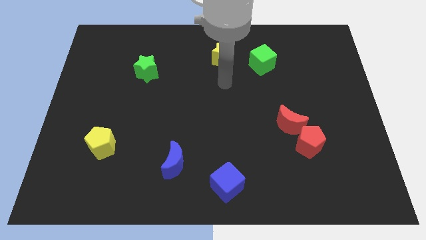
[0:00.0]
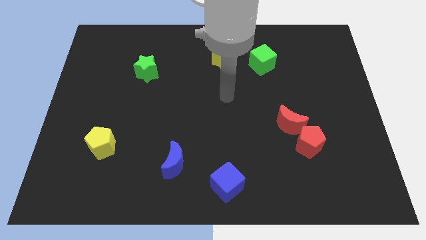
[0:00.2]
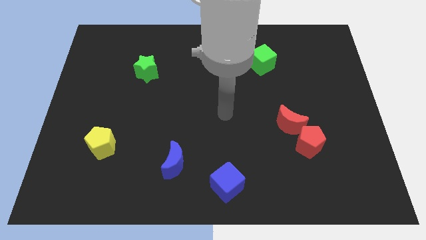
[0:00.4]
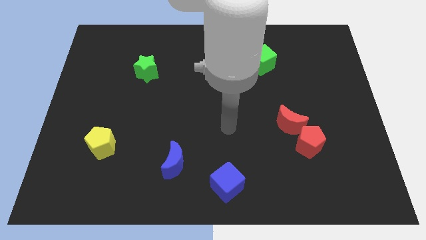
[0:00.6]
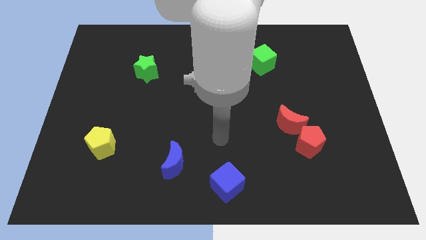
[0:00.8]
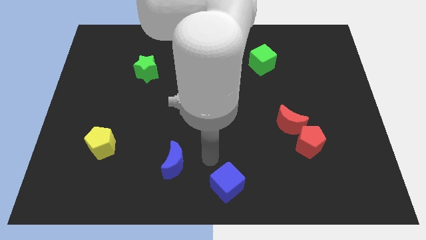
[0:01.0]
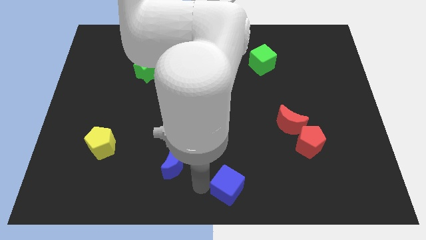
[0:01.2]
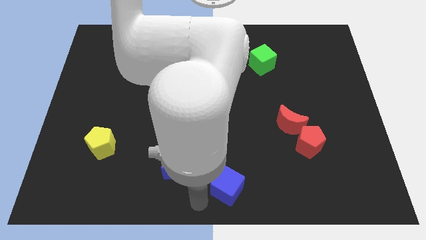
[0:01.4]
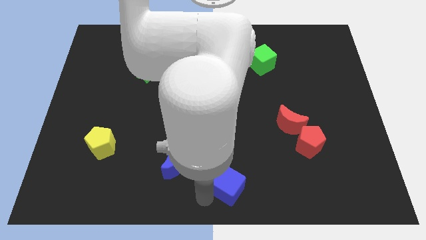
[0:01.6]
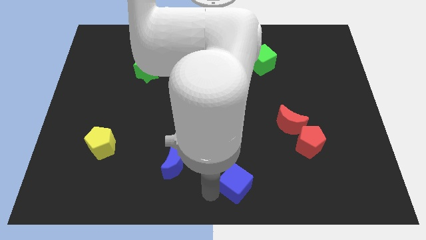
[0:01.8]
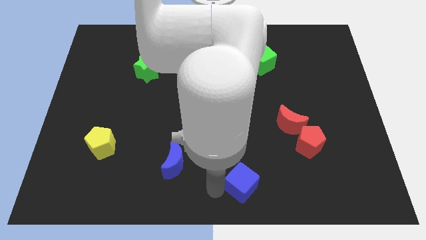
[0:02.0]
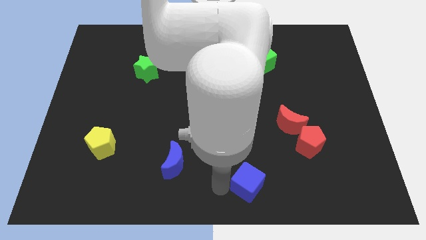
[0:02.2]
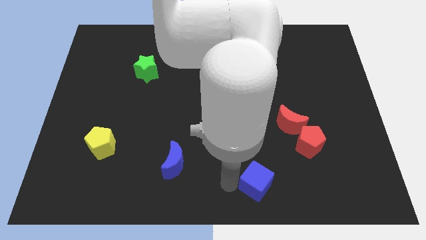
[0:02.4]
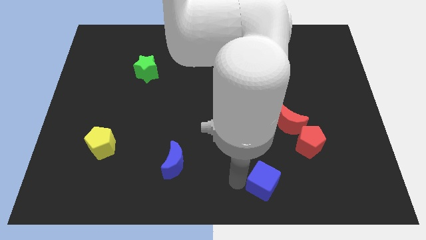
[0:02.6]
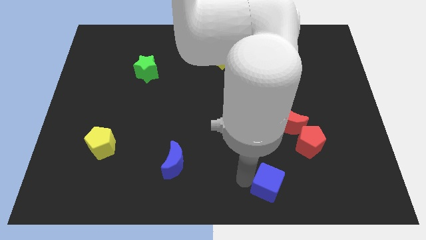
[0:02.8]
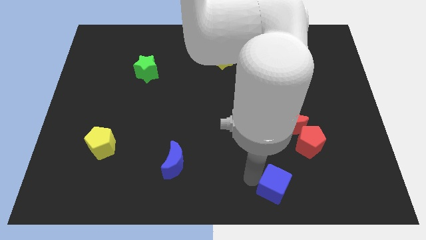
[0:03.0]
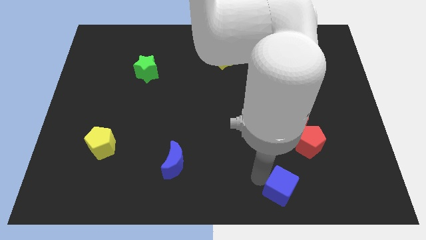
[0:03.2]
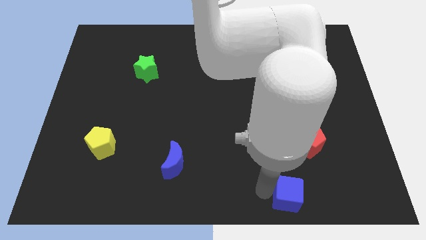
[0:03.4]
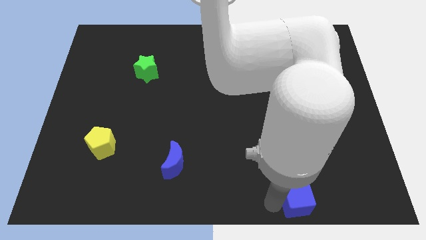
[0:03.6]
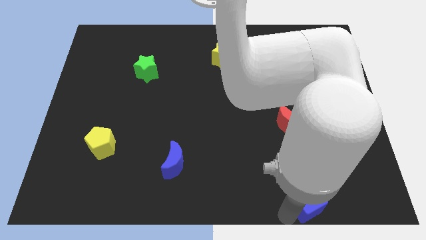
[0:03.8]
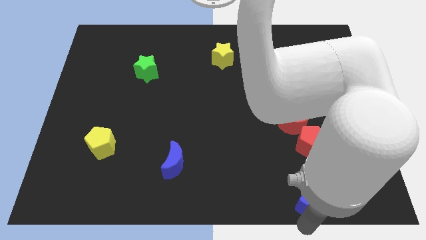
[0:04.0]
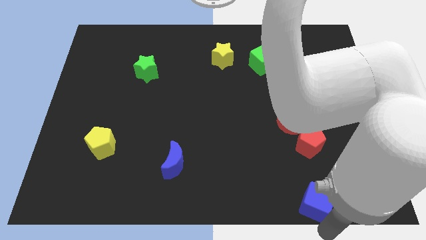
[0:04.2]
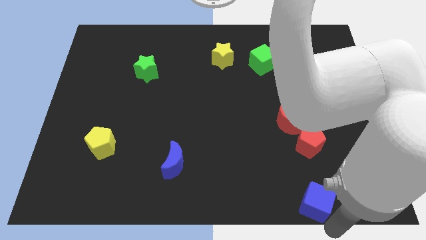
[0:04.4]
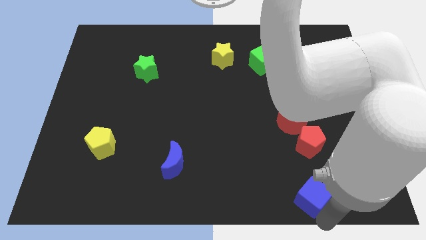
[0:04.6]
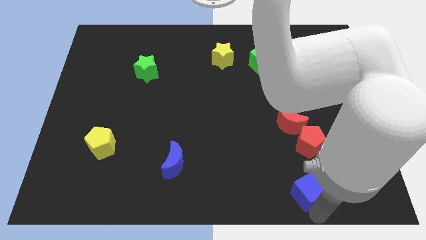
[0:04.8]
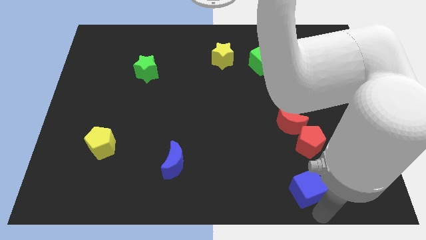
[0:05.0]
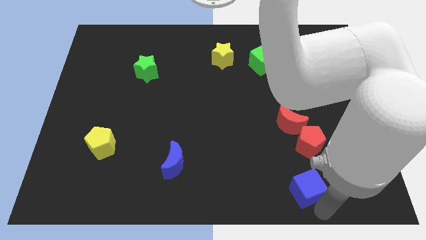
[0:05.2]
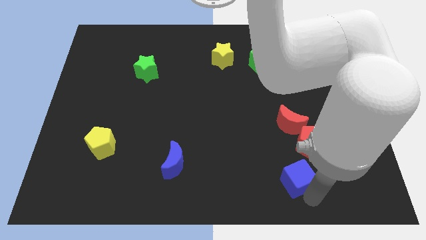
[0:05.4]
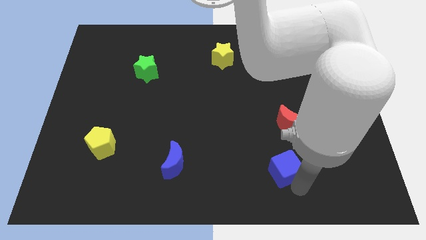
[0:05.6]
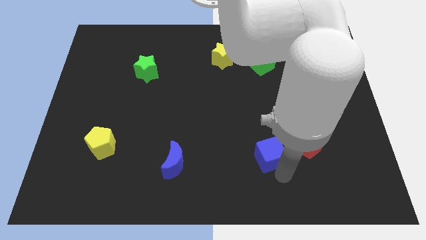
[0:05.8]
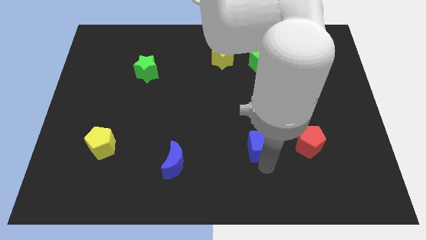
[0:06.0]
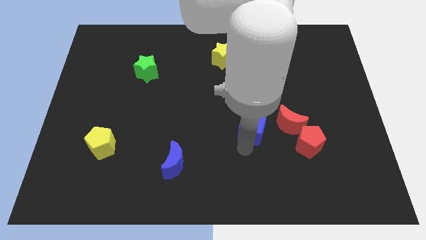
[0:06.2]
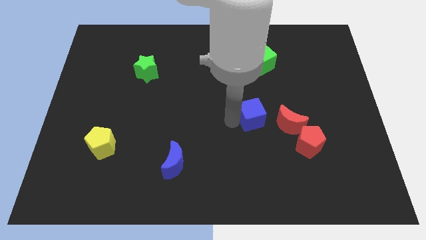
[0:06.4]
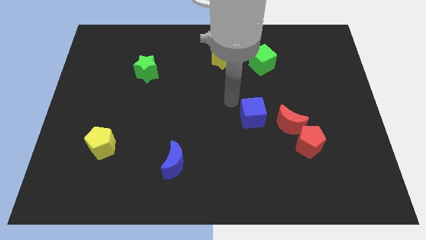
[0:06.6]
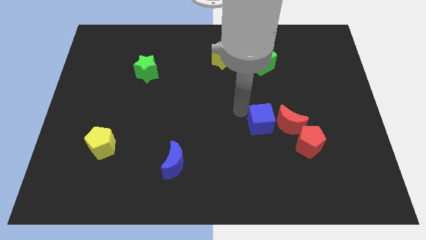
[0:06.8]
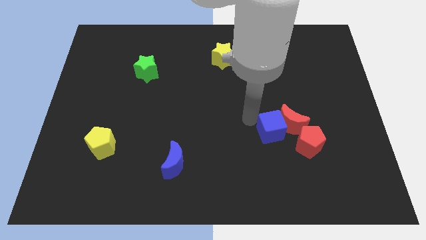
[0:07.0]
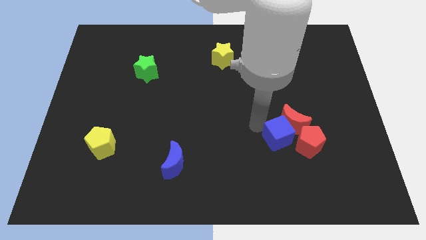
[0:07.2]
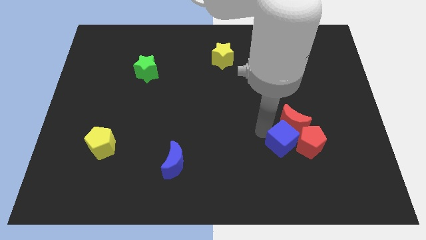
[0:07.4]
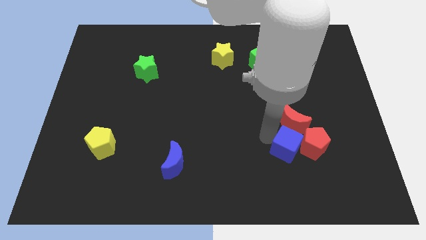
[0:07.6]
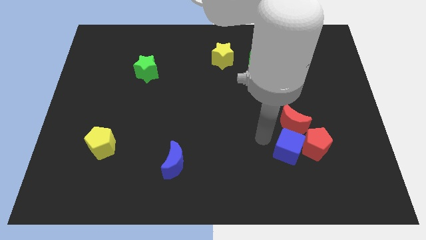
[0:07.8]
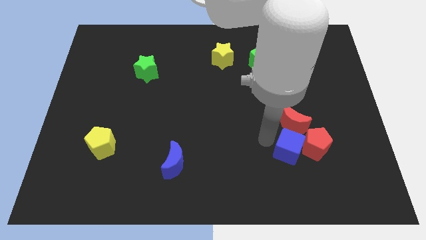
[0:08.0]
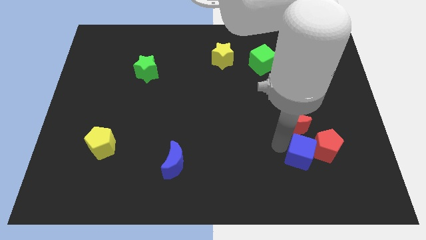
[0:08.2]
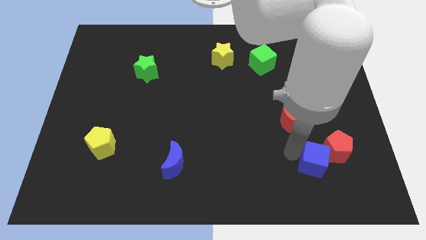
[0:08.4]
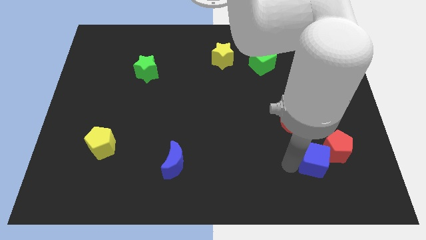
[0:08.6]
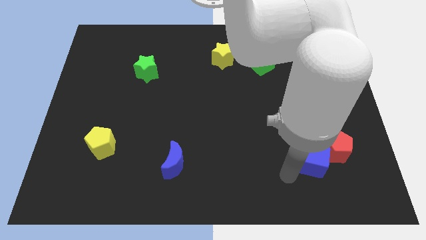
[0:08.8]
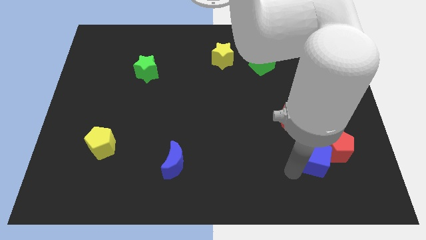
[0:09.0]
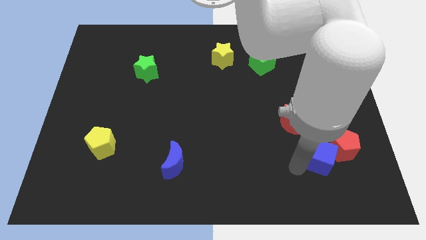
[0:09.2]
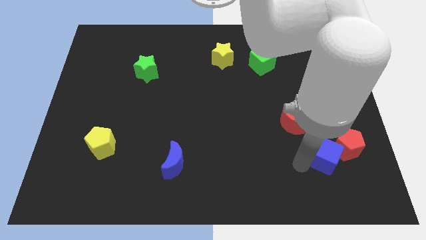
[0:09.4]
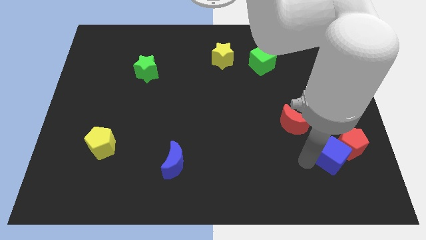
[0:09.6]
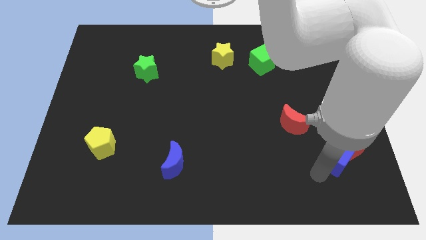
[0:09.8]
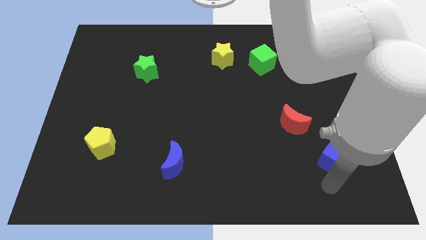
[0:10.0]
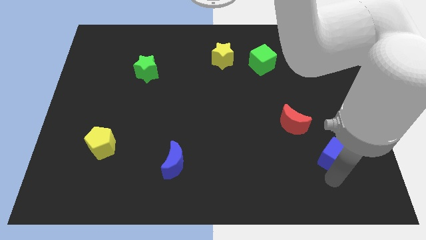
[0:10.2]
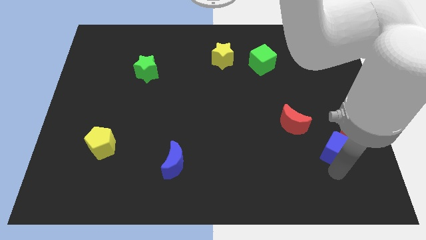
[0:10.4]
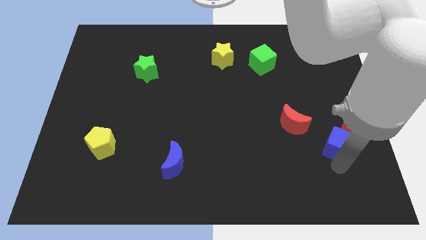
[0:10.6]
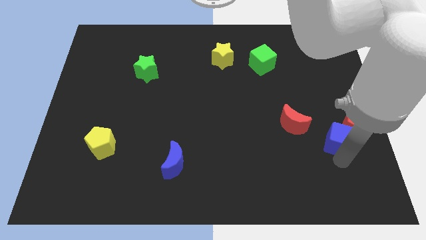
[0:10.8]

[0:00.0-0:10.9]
slide the blue cube just right of the red moon

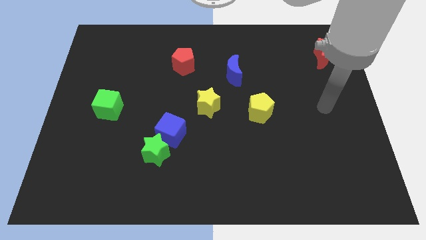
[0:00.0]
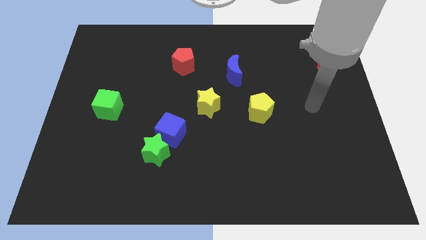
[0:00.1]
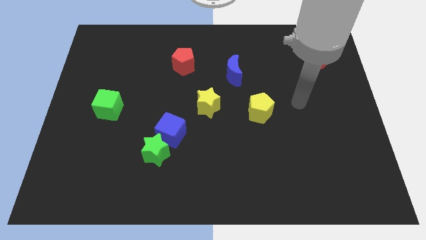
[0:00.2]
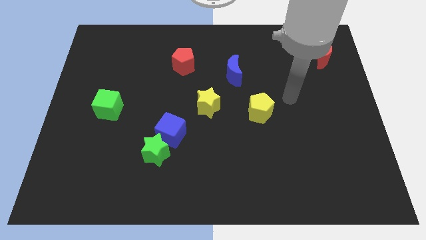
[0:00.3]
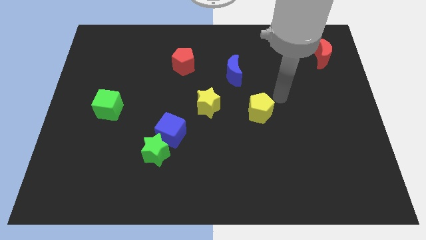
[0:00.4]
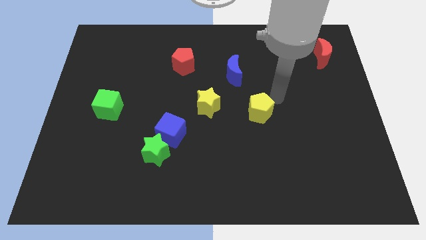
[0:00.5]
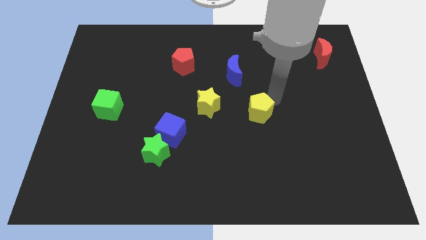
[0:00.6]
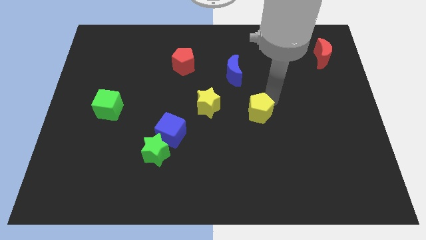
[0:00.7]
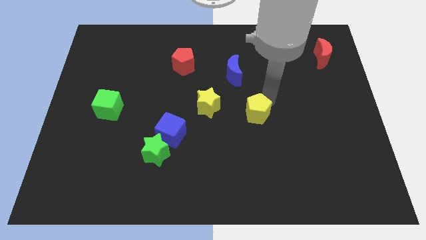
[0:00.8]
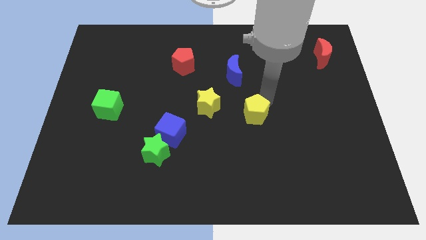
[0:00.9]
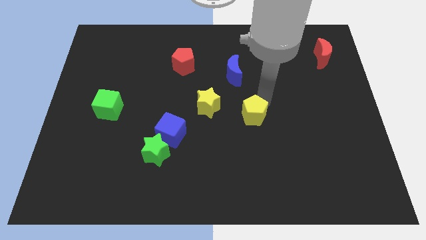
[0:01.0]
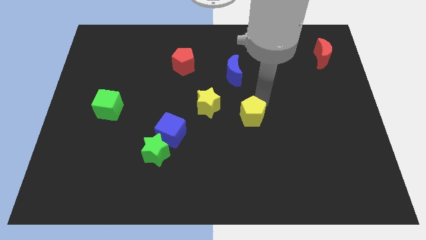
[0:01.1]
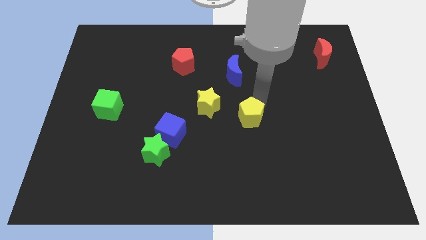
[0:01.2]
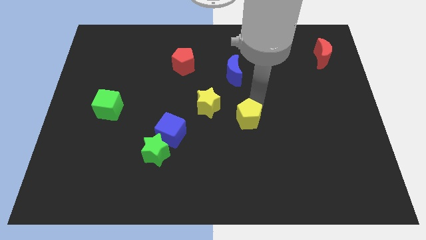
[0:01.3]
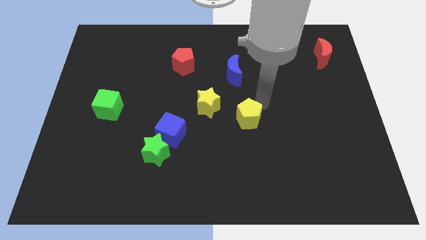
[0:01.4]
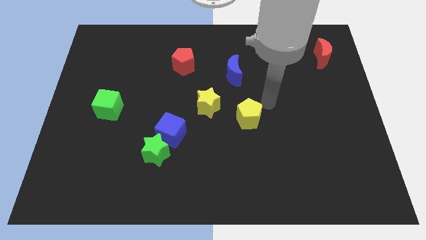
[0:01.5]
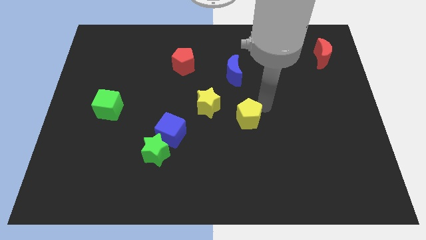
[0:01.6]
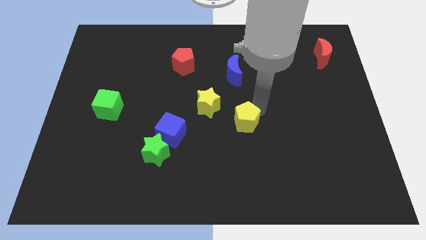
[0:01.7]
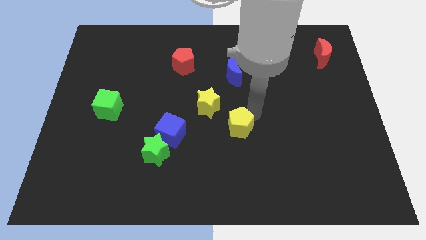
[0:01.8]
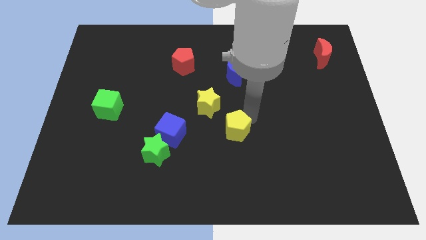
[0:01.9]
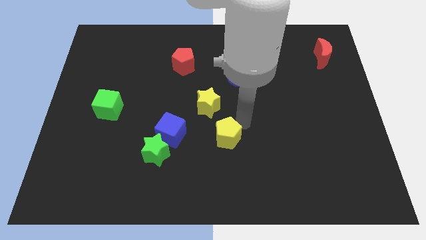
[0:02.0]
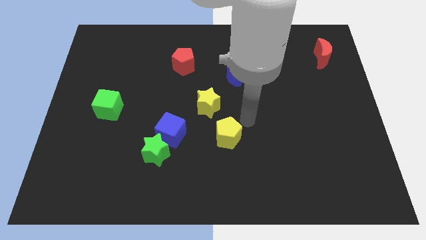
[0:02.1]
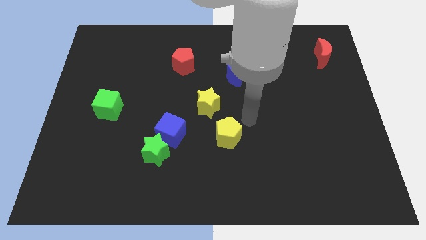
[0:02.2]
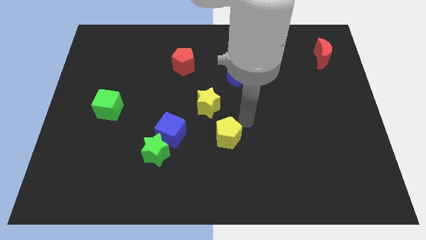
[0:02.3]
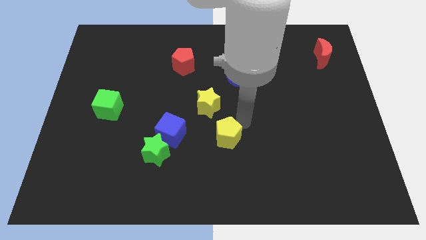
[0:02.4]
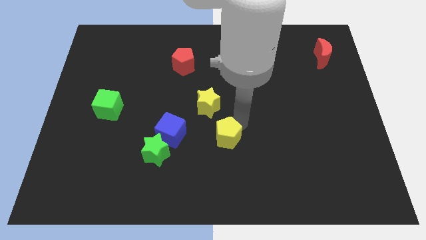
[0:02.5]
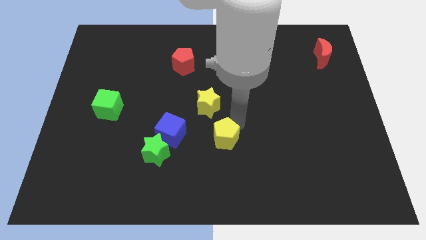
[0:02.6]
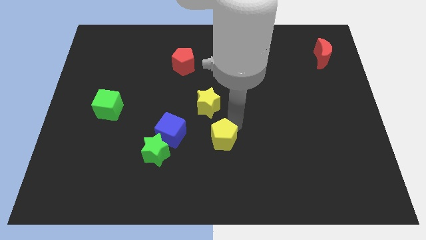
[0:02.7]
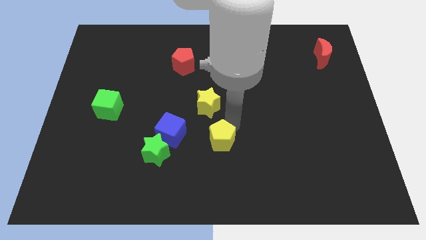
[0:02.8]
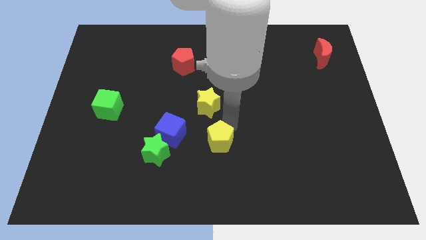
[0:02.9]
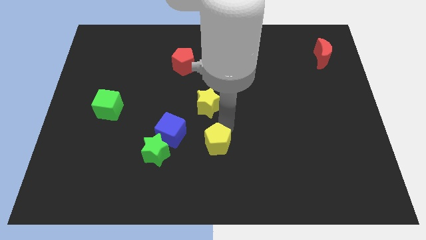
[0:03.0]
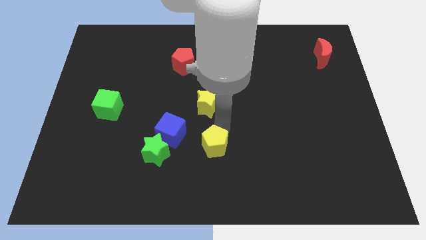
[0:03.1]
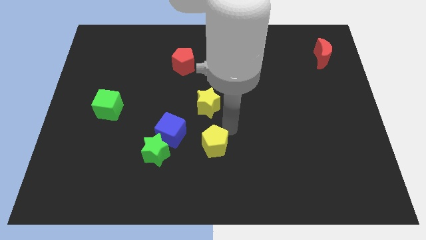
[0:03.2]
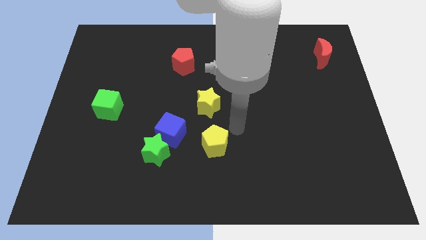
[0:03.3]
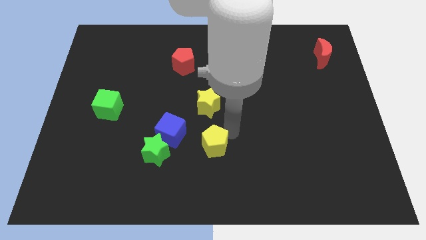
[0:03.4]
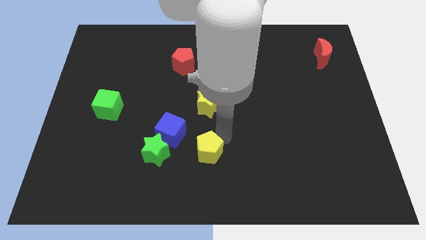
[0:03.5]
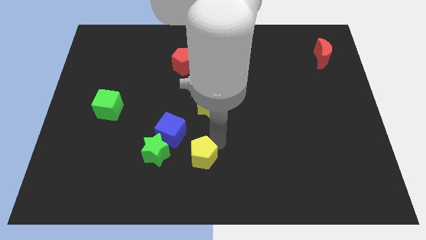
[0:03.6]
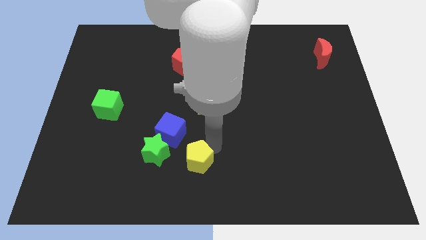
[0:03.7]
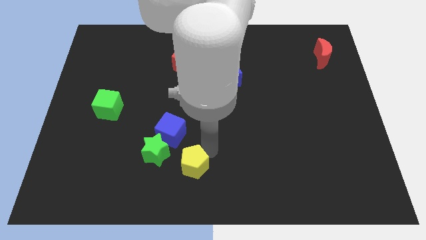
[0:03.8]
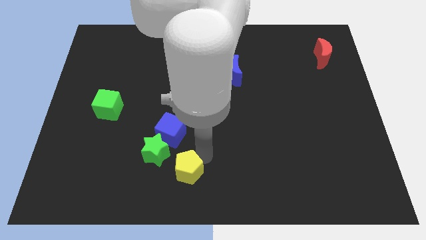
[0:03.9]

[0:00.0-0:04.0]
slide the yellow pentagon to the bottom of the blue cube
